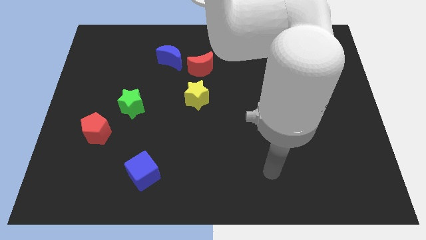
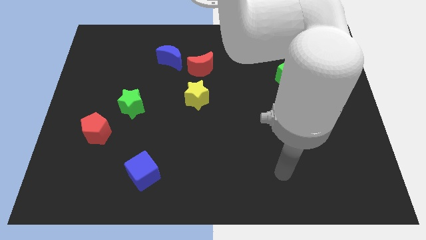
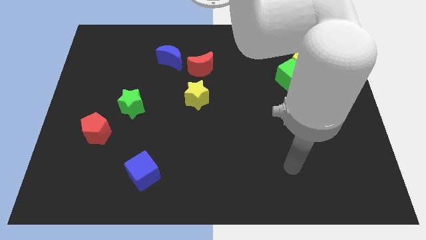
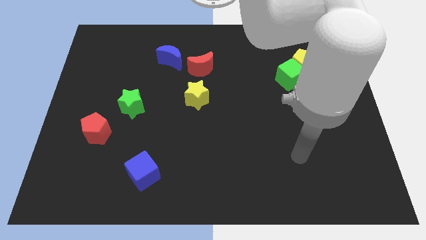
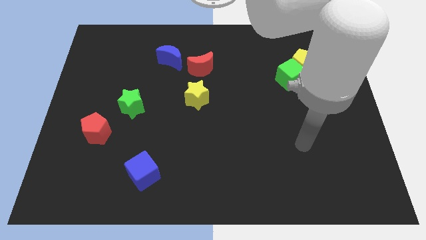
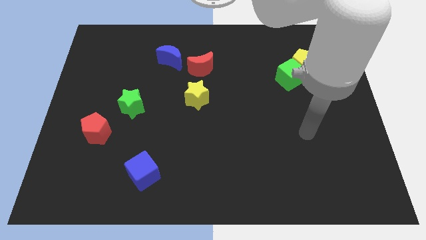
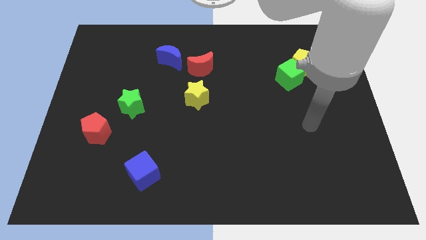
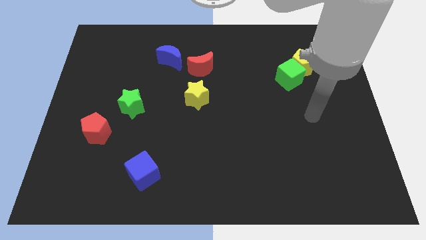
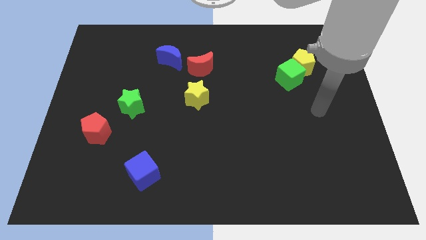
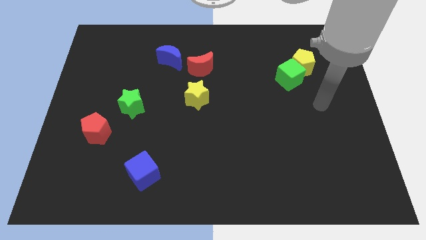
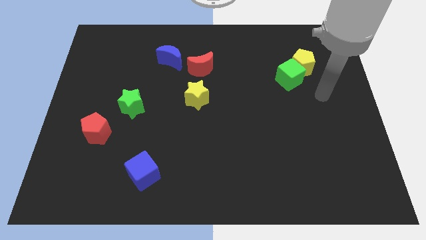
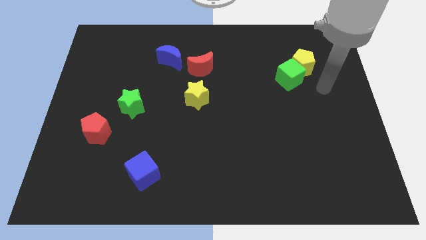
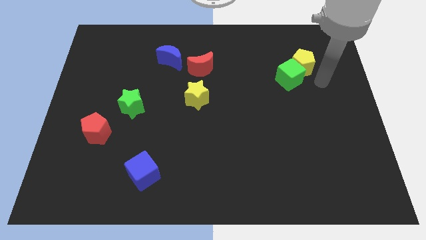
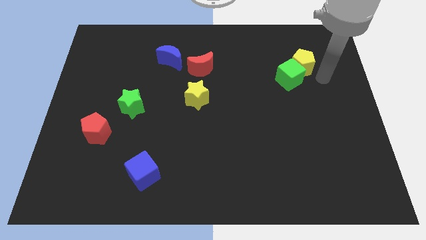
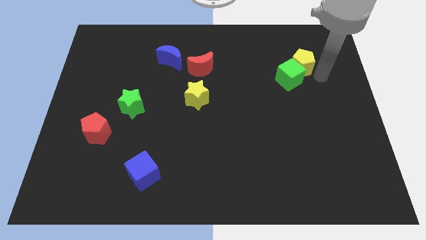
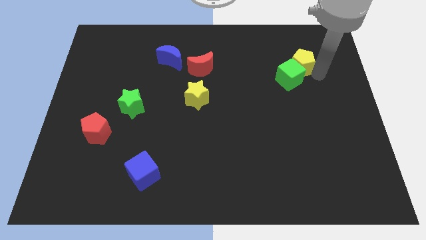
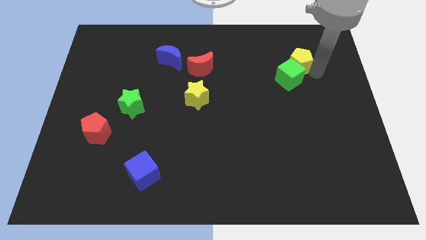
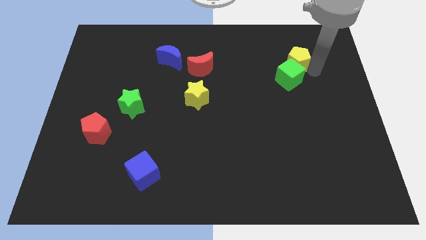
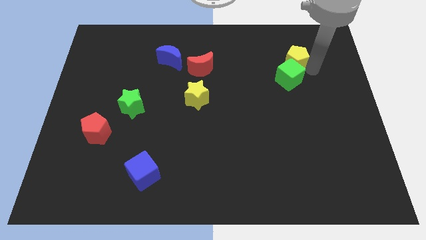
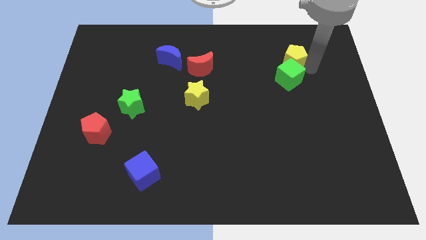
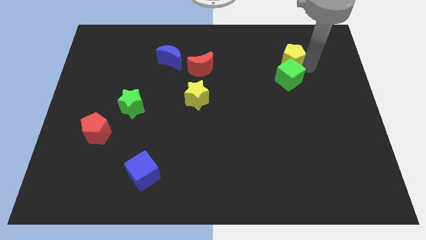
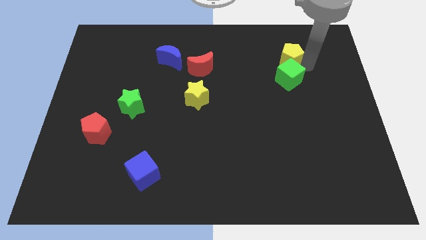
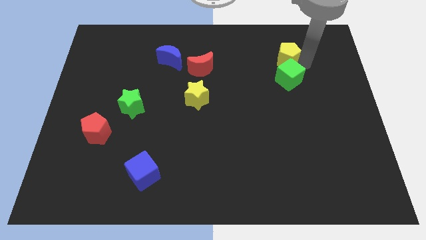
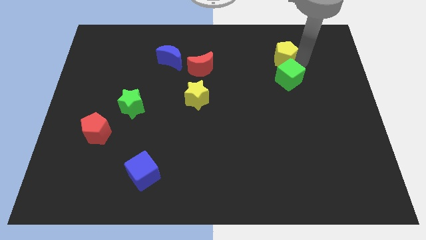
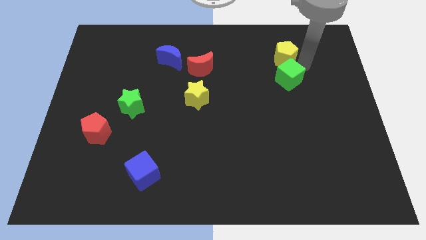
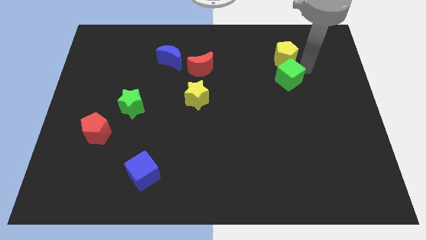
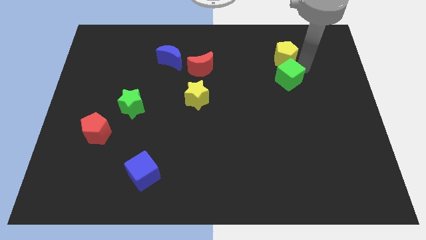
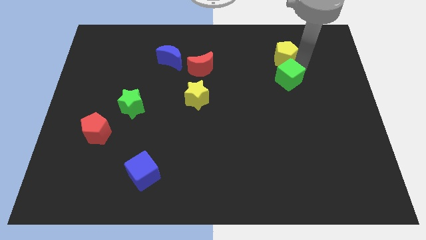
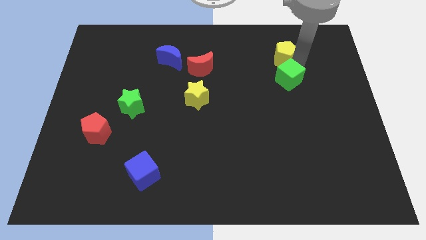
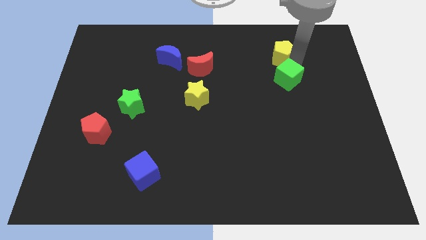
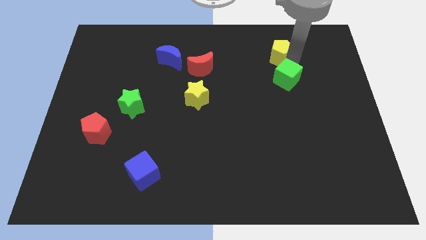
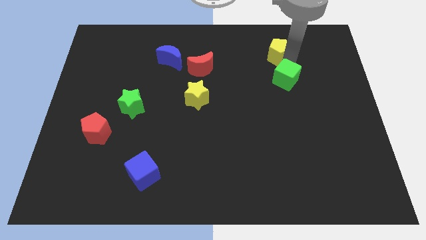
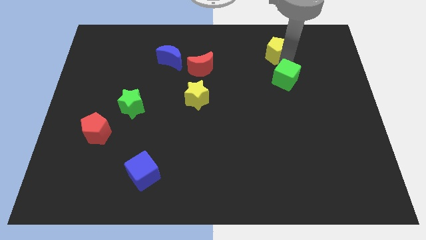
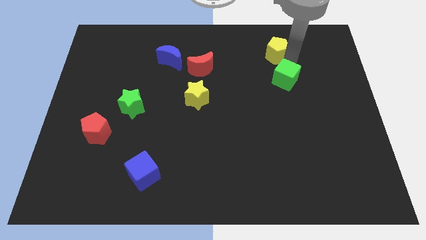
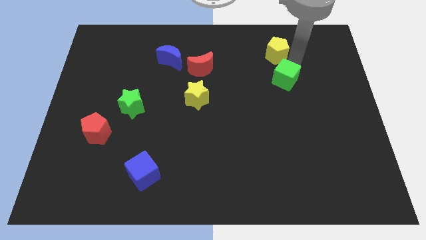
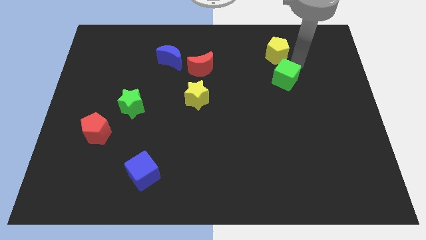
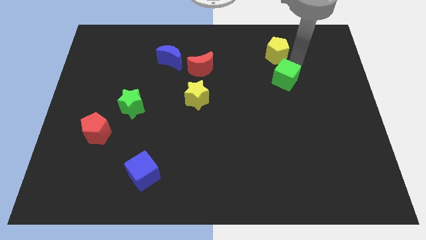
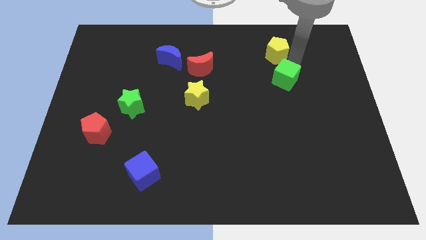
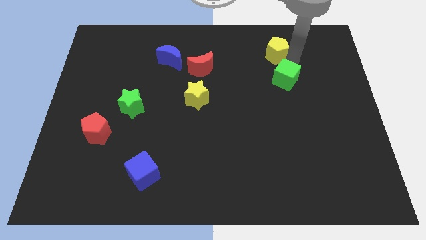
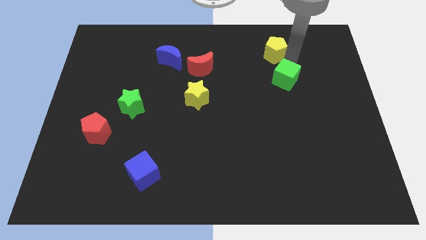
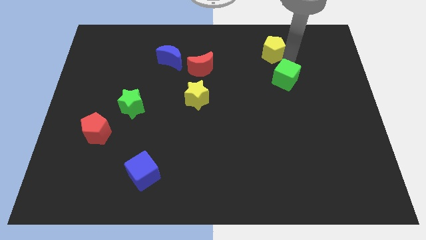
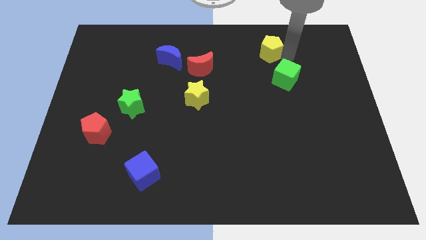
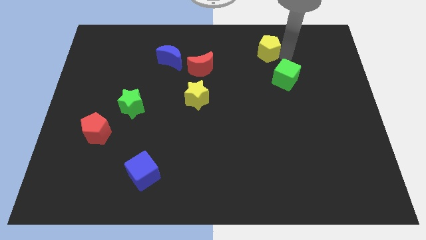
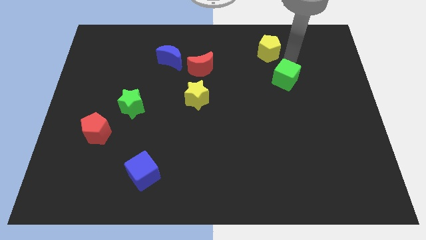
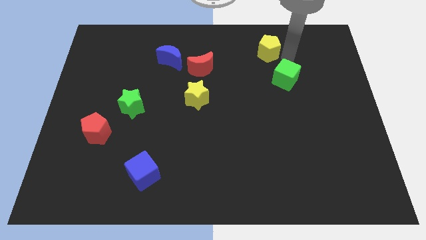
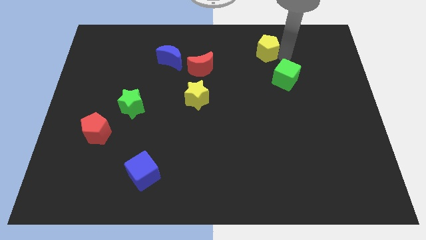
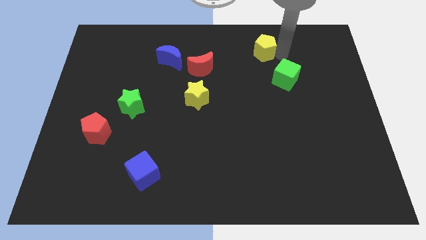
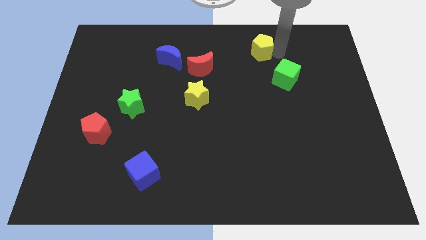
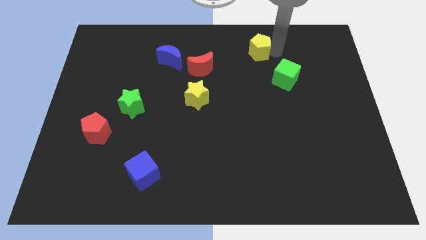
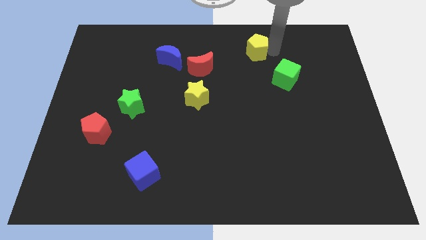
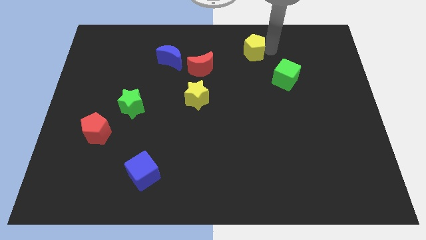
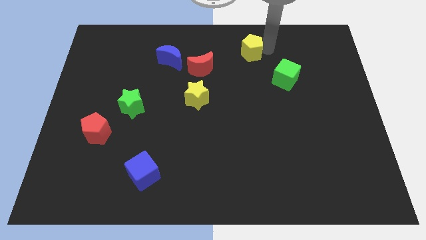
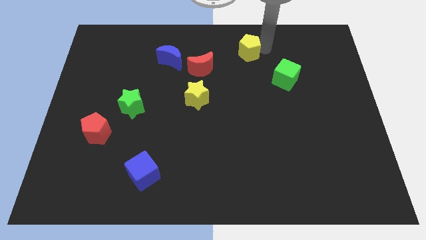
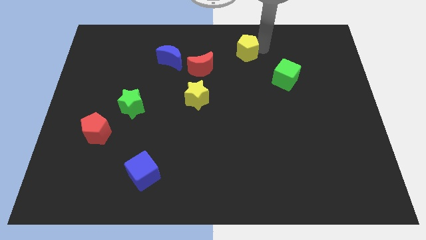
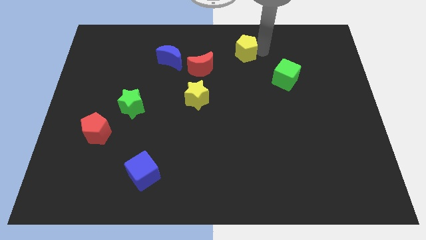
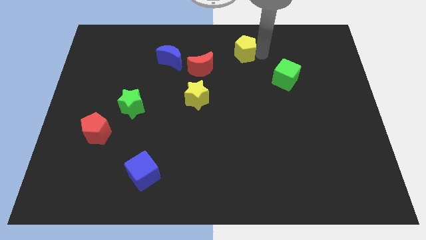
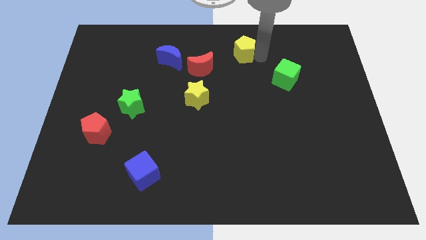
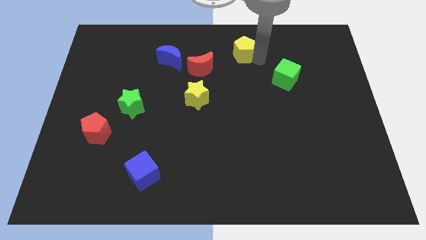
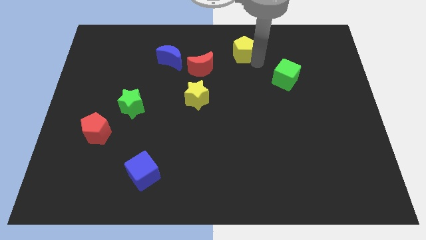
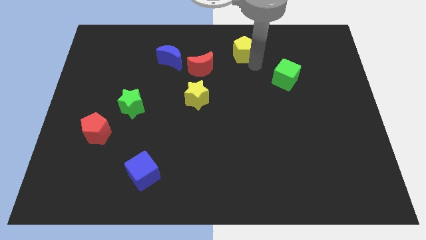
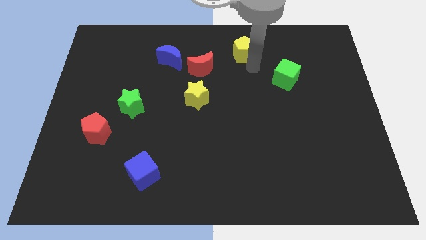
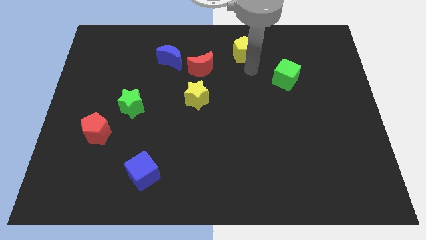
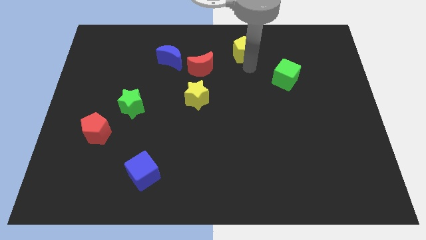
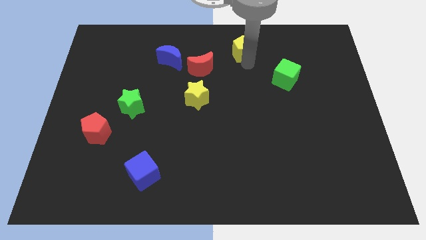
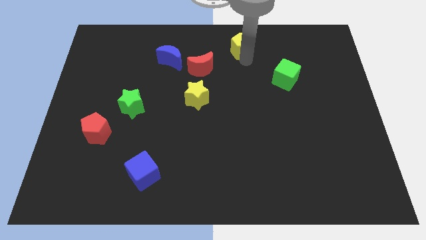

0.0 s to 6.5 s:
slide the yellow pentagon to the top side

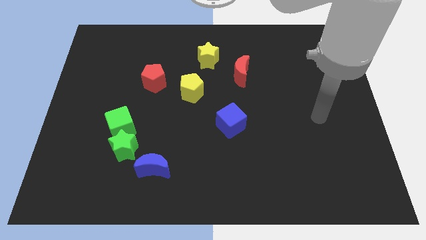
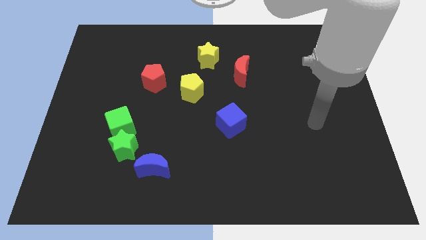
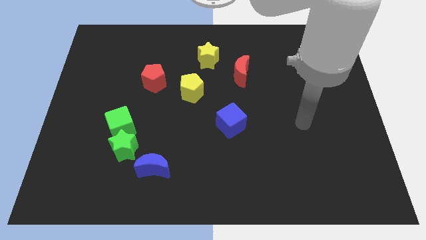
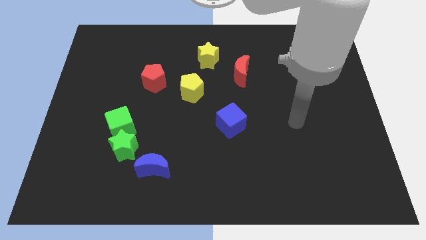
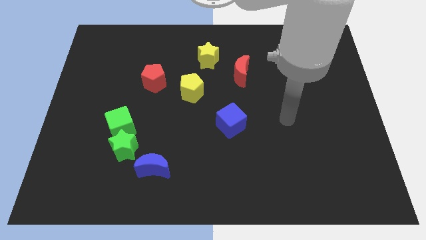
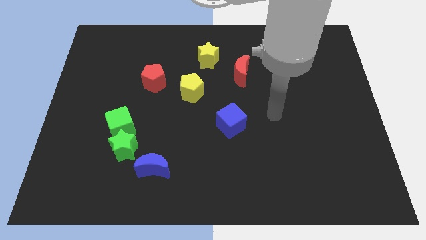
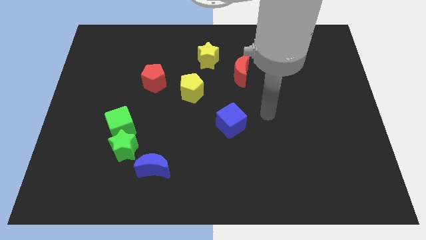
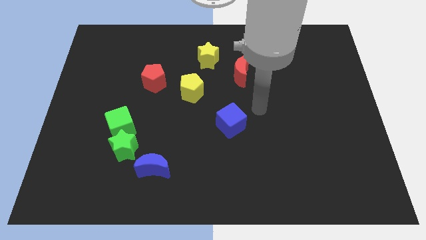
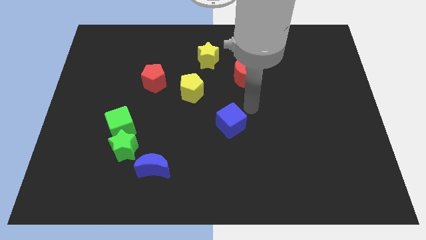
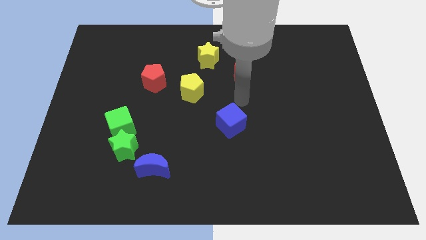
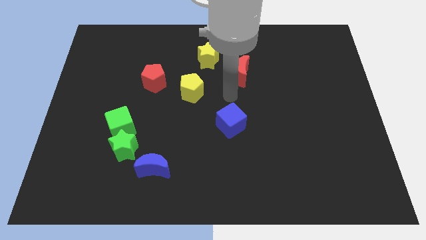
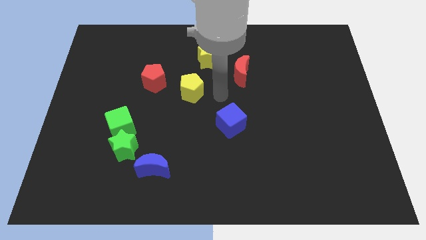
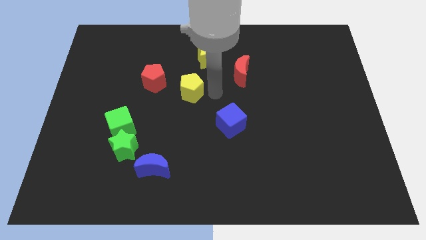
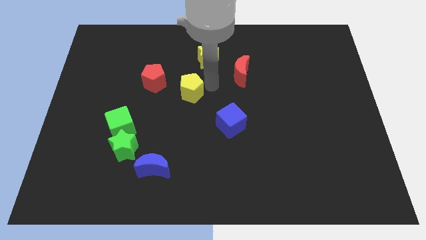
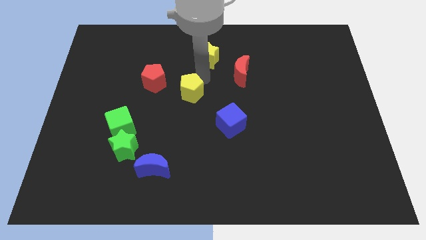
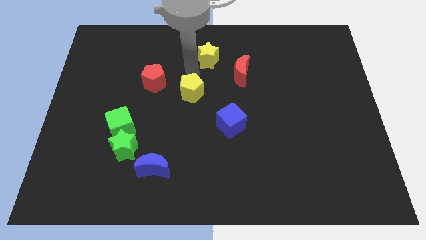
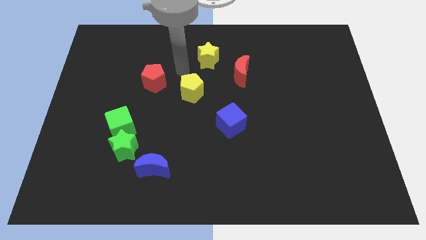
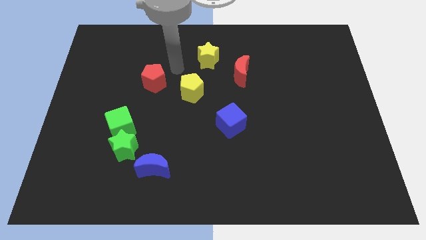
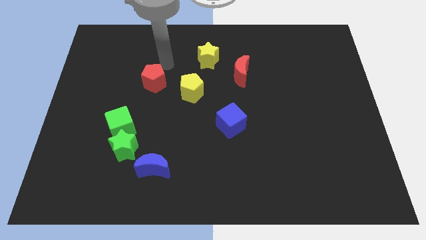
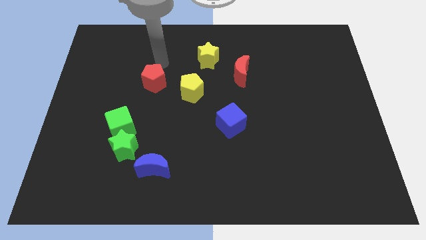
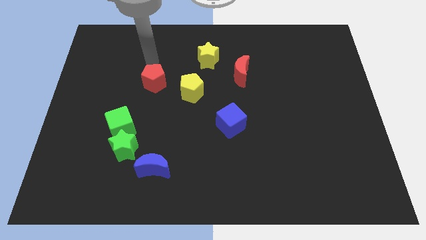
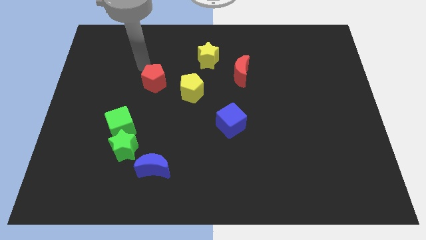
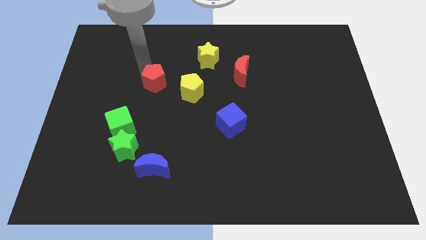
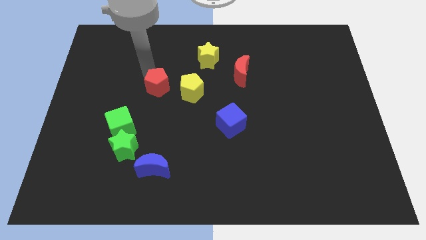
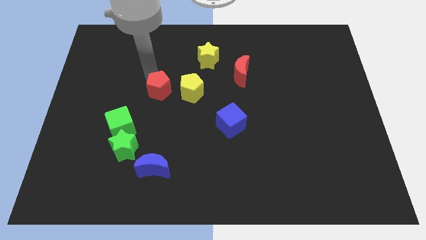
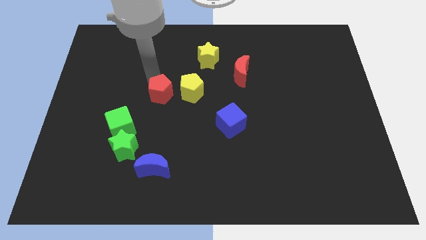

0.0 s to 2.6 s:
put the red pentagon to the center
